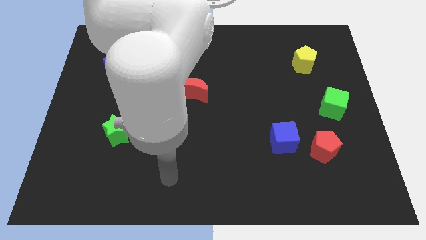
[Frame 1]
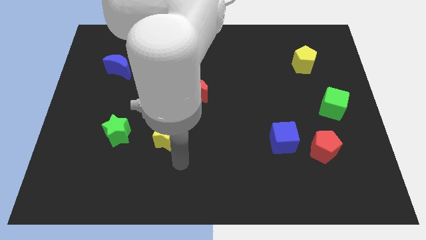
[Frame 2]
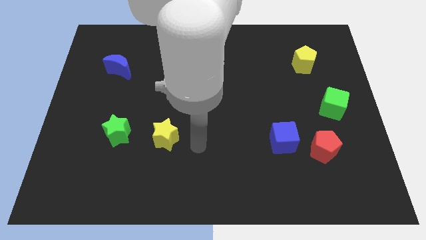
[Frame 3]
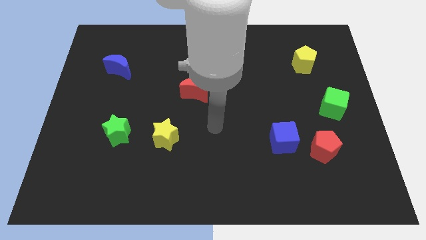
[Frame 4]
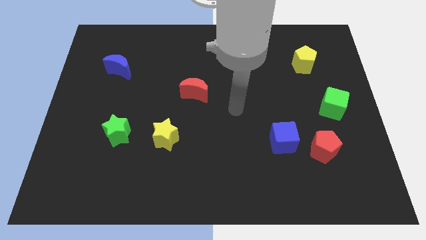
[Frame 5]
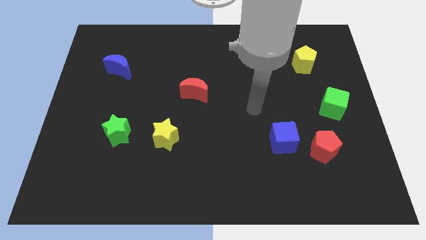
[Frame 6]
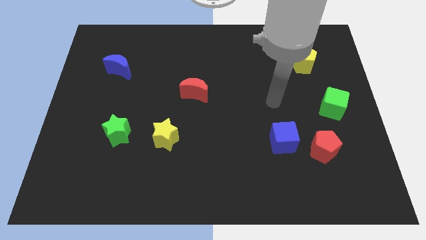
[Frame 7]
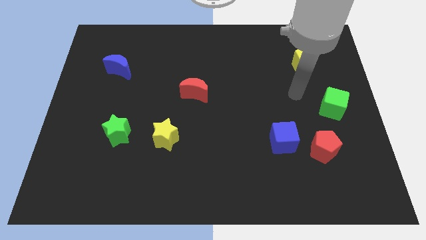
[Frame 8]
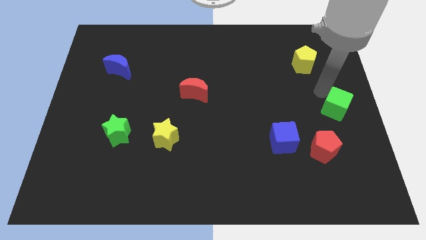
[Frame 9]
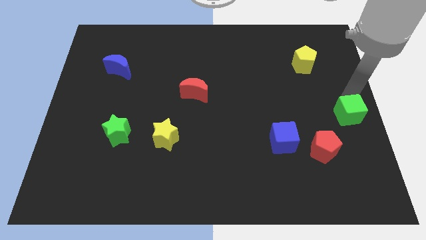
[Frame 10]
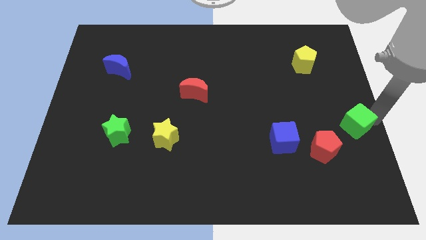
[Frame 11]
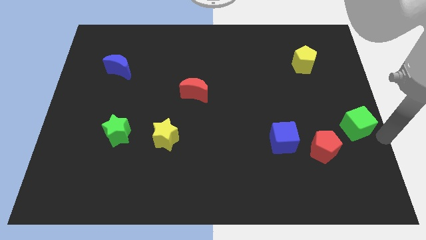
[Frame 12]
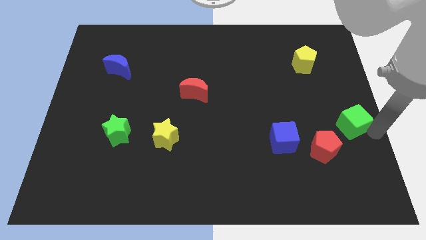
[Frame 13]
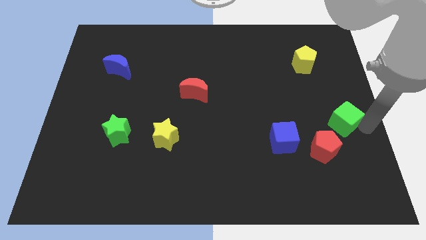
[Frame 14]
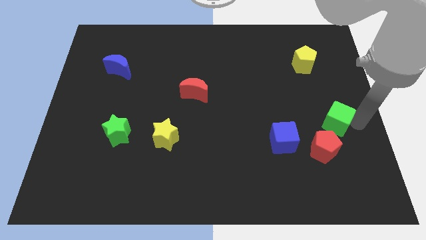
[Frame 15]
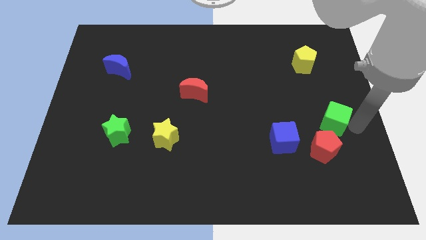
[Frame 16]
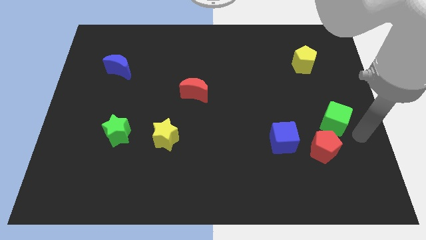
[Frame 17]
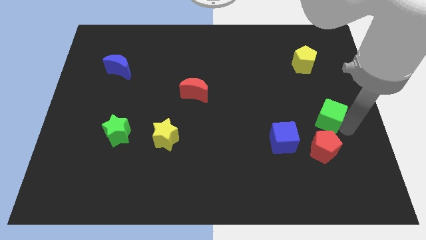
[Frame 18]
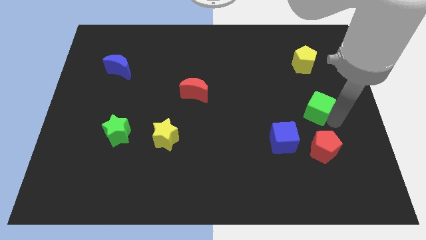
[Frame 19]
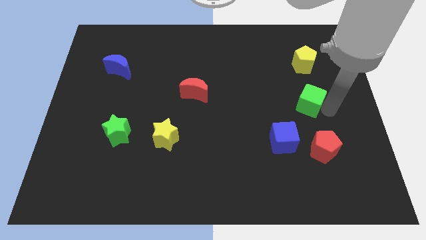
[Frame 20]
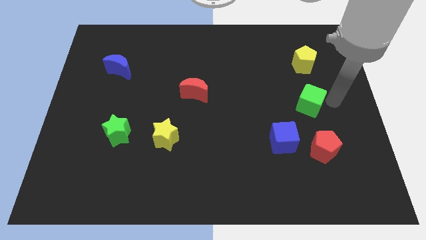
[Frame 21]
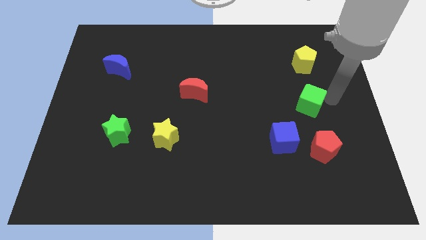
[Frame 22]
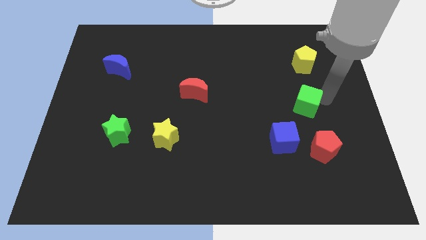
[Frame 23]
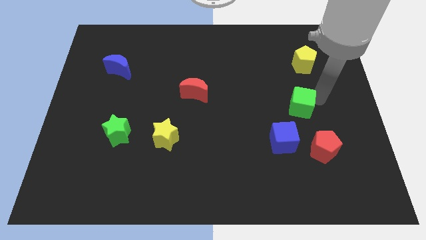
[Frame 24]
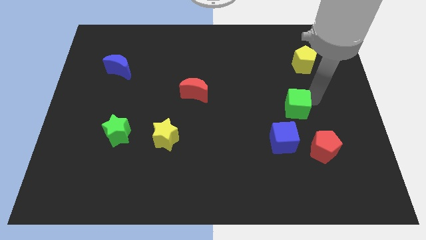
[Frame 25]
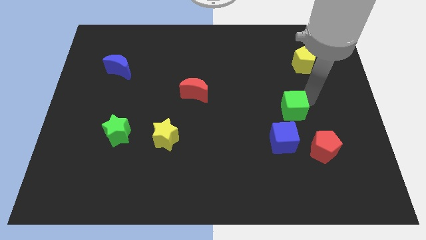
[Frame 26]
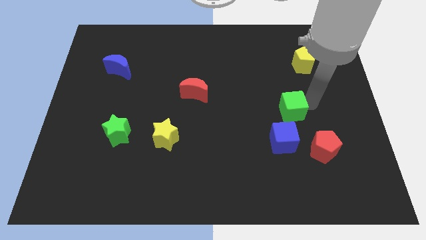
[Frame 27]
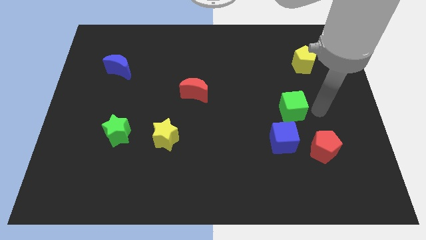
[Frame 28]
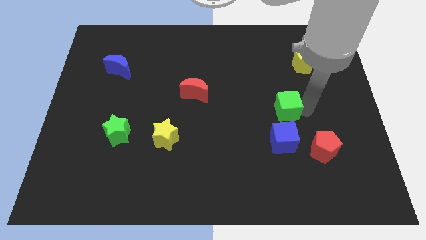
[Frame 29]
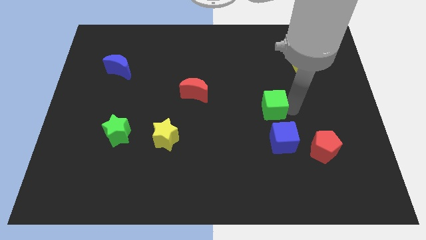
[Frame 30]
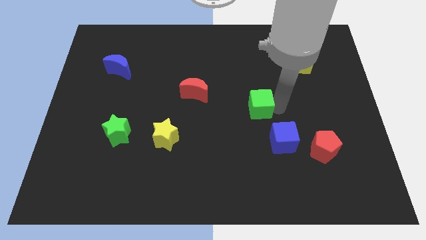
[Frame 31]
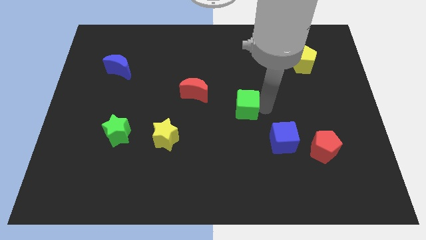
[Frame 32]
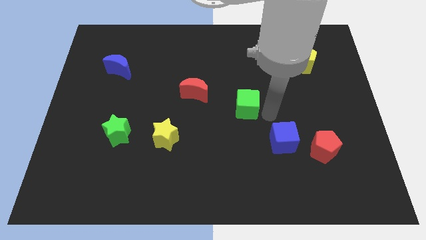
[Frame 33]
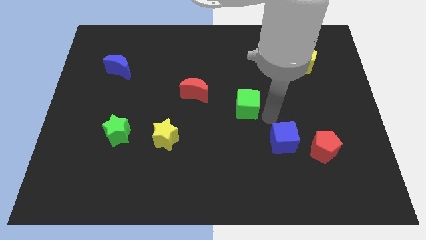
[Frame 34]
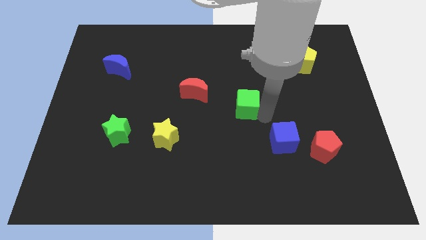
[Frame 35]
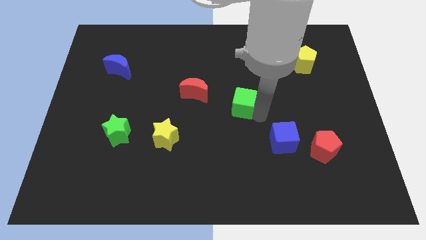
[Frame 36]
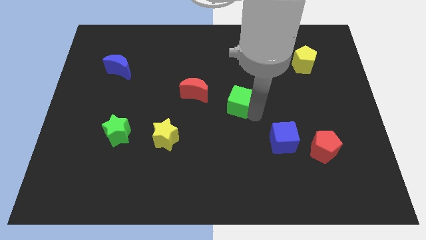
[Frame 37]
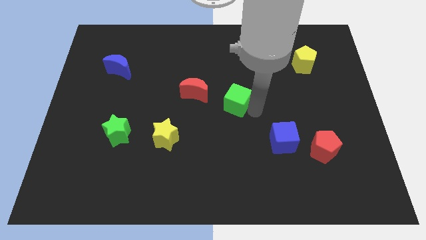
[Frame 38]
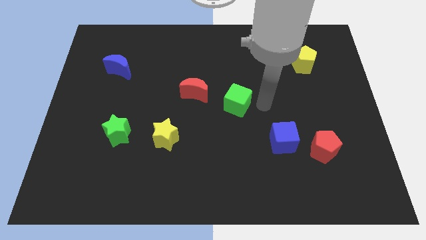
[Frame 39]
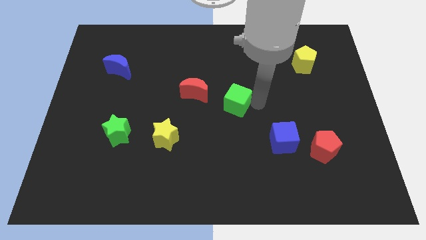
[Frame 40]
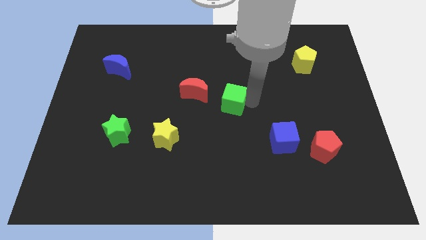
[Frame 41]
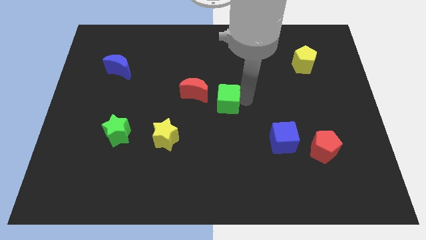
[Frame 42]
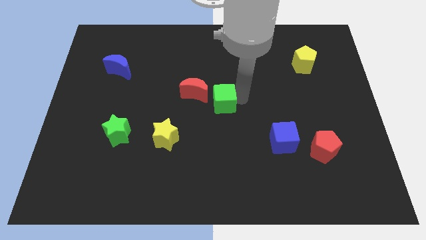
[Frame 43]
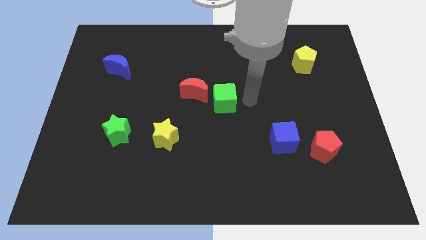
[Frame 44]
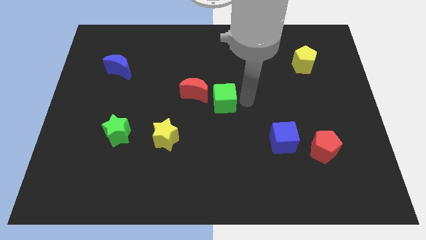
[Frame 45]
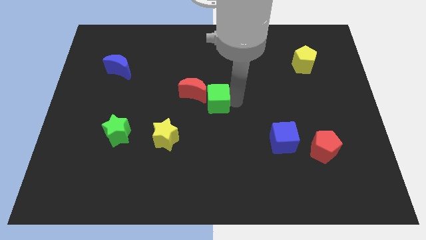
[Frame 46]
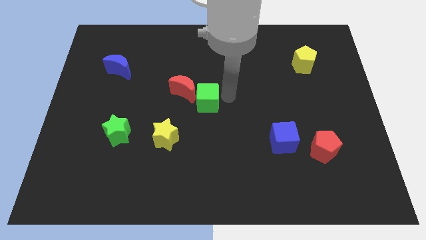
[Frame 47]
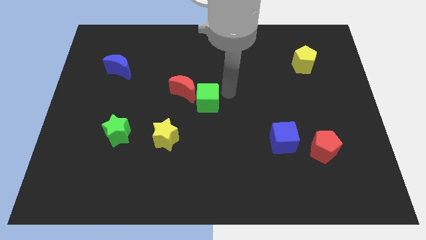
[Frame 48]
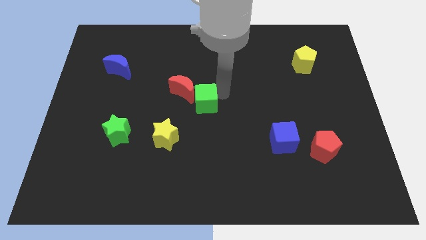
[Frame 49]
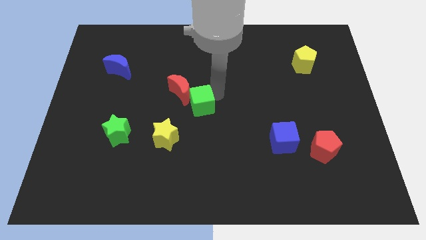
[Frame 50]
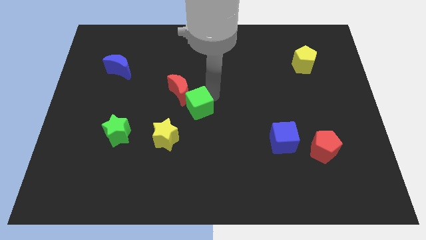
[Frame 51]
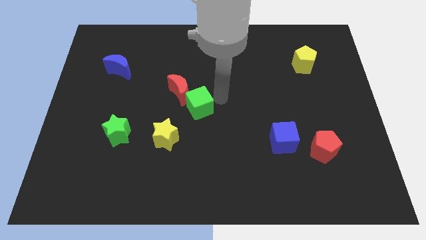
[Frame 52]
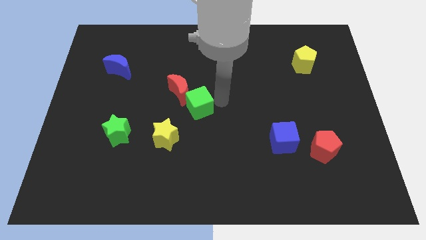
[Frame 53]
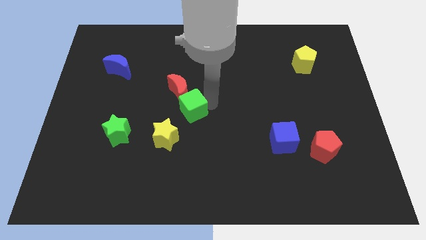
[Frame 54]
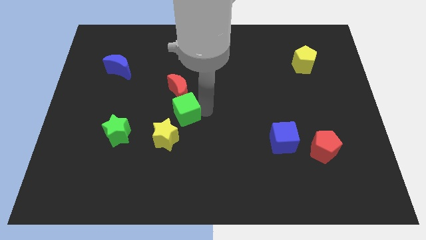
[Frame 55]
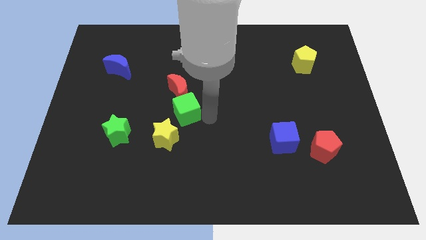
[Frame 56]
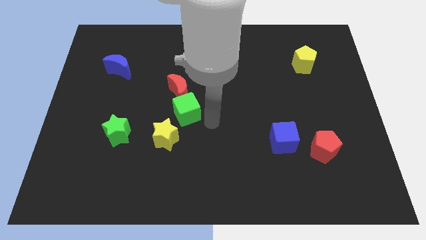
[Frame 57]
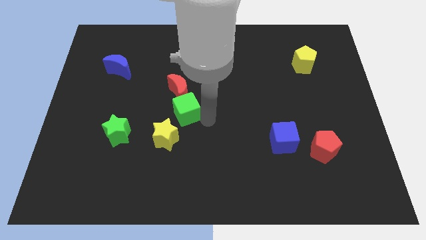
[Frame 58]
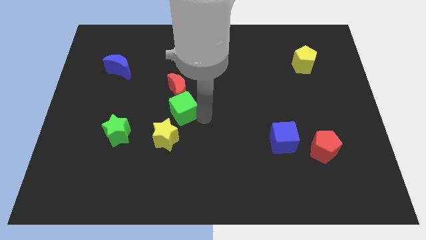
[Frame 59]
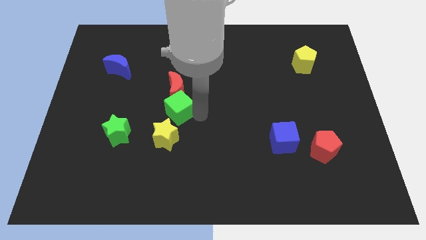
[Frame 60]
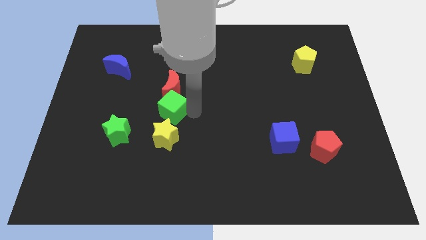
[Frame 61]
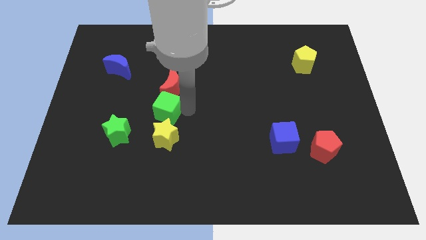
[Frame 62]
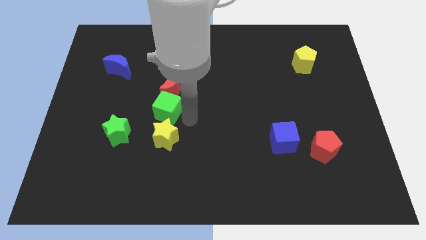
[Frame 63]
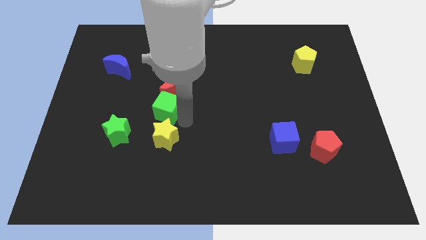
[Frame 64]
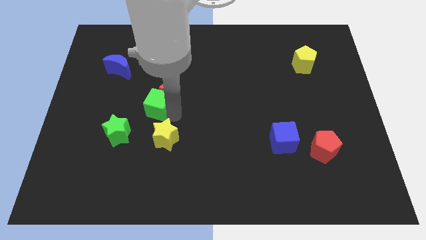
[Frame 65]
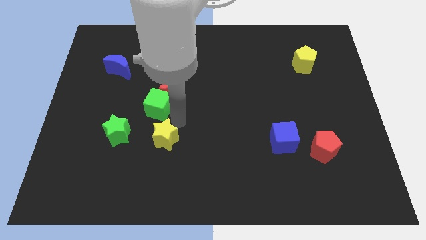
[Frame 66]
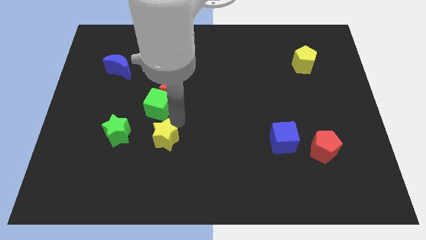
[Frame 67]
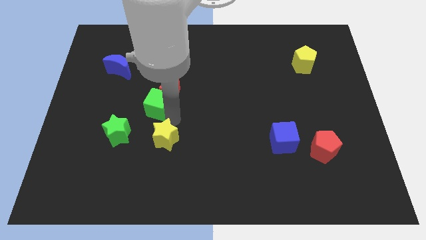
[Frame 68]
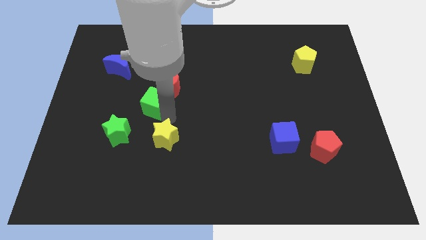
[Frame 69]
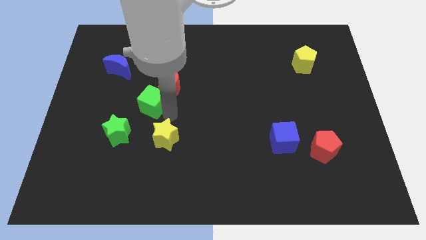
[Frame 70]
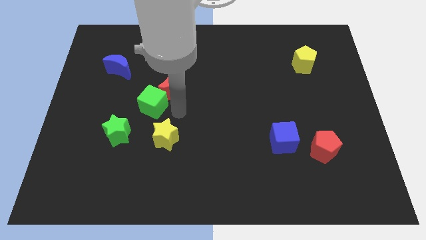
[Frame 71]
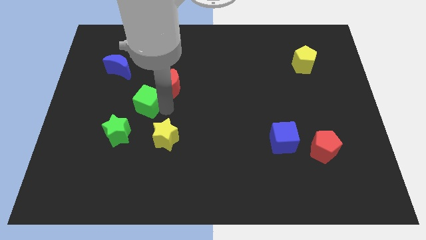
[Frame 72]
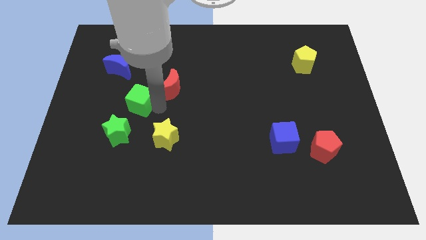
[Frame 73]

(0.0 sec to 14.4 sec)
put the green cube above the green star
